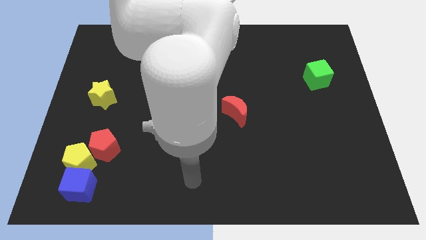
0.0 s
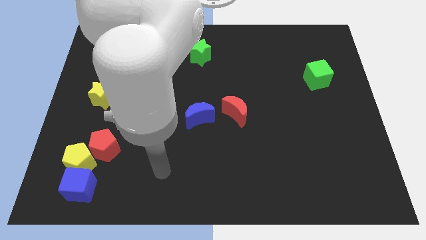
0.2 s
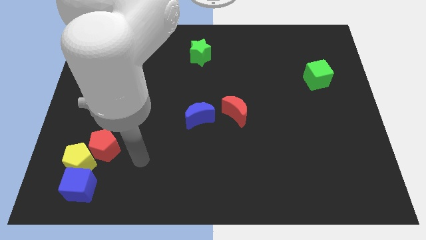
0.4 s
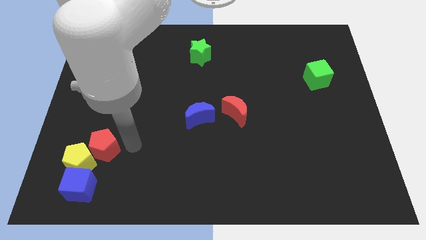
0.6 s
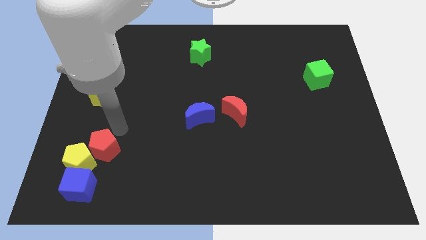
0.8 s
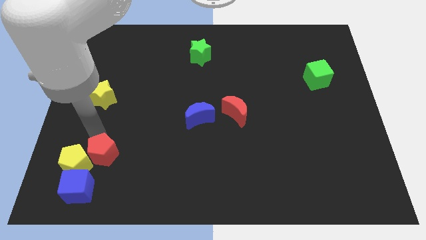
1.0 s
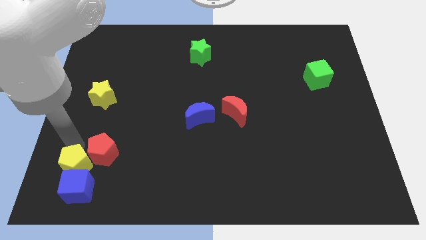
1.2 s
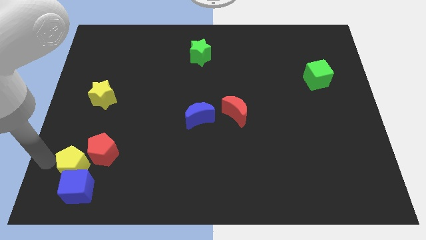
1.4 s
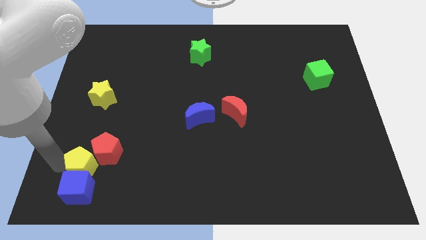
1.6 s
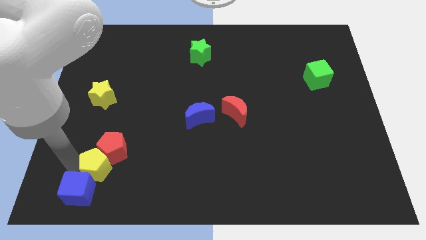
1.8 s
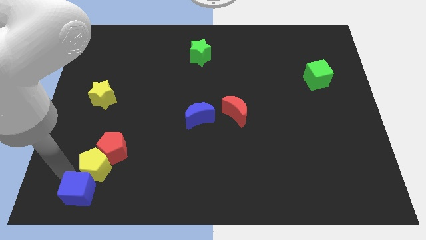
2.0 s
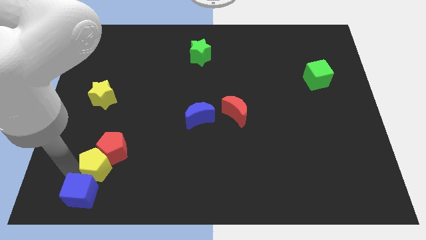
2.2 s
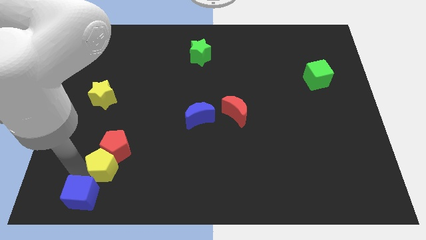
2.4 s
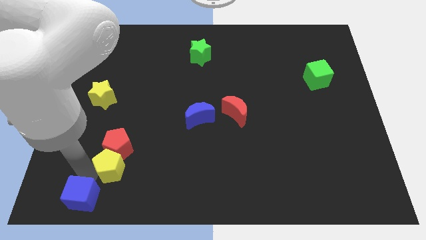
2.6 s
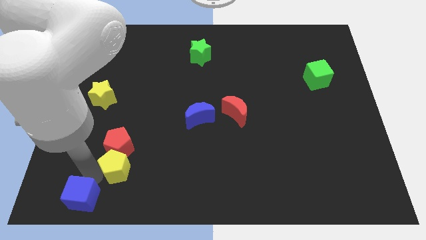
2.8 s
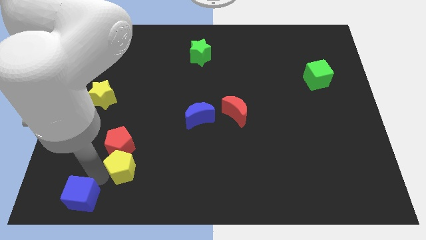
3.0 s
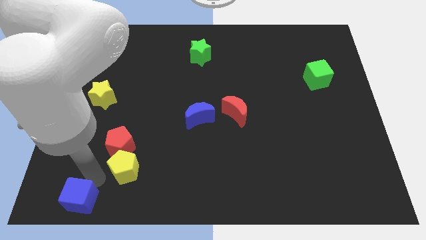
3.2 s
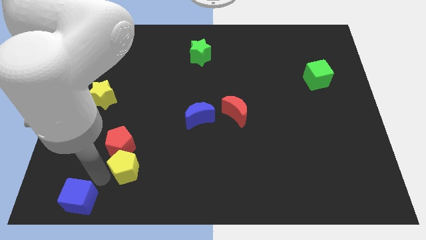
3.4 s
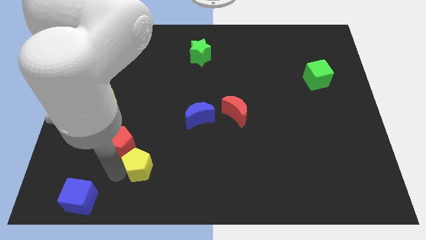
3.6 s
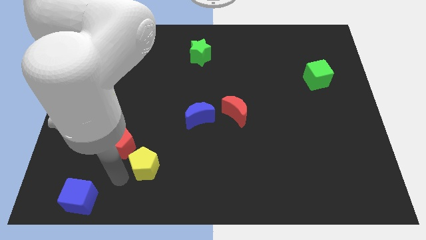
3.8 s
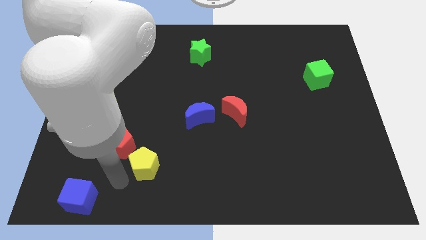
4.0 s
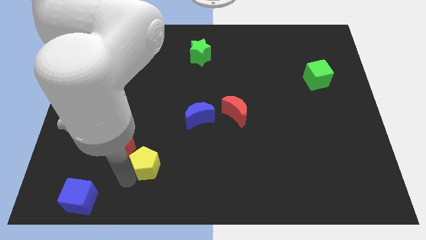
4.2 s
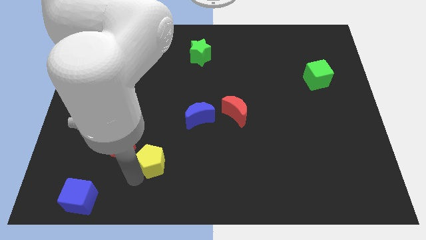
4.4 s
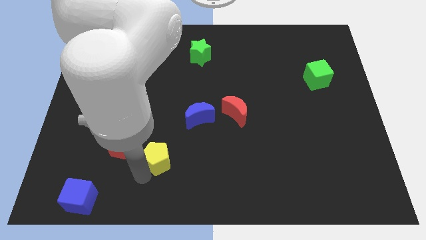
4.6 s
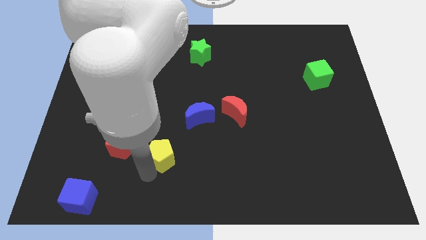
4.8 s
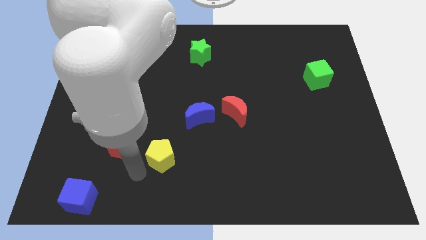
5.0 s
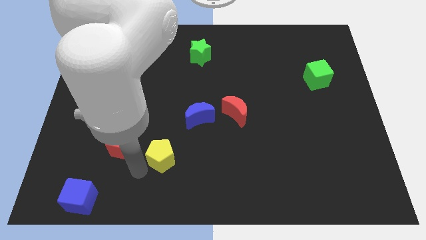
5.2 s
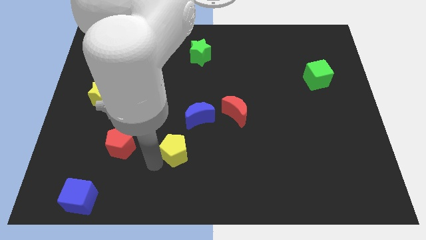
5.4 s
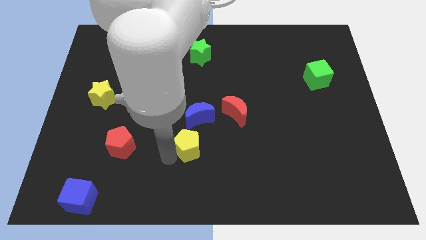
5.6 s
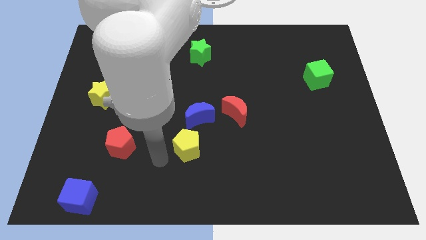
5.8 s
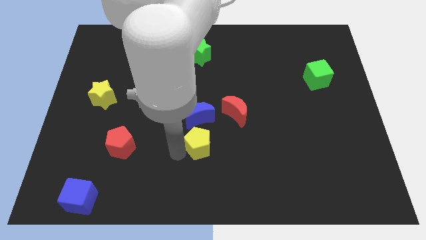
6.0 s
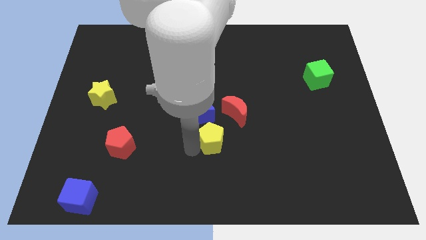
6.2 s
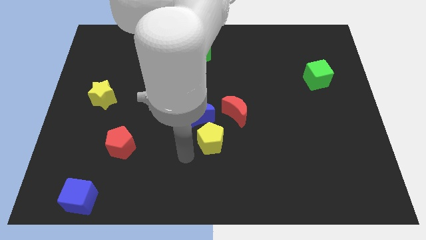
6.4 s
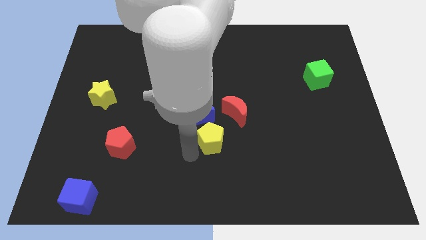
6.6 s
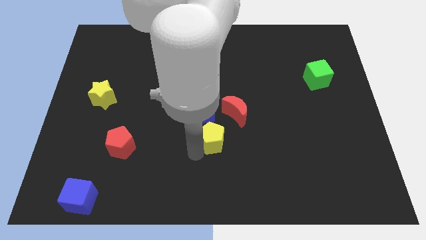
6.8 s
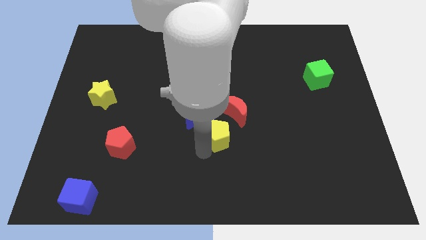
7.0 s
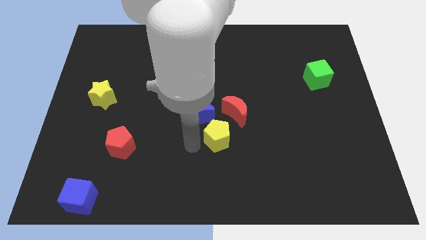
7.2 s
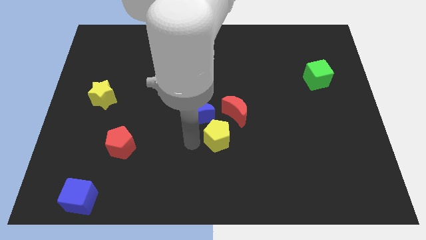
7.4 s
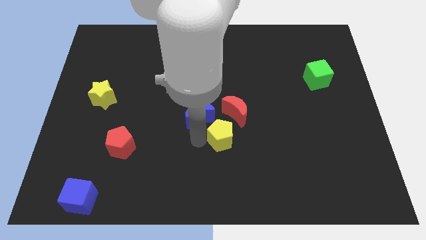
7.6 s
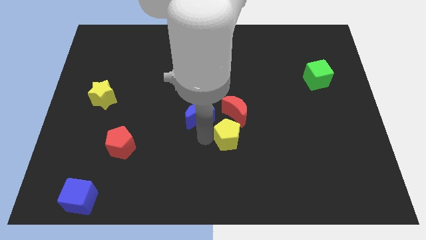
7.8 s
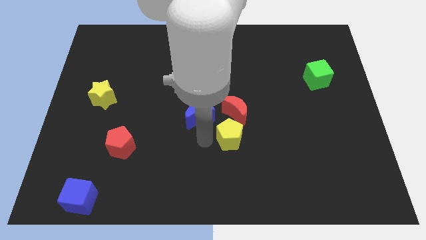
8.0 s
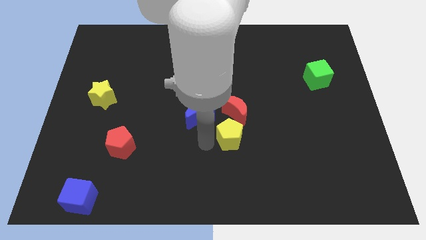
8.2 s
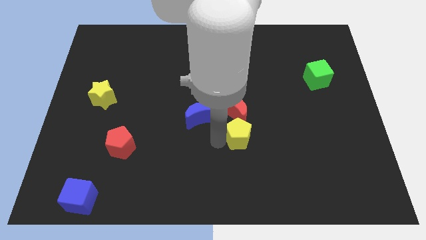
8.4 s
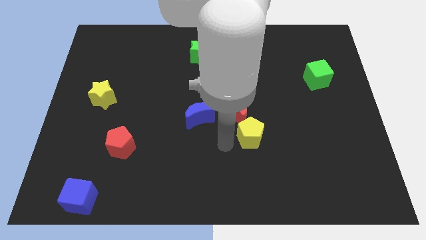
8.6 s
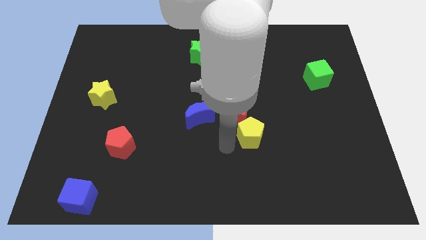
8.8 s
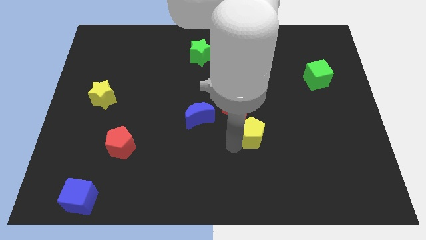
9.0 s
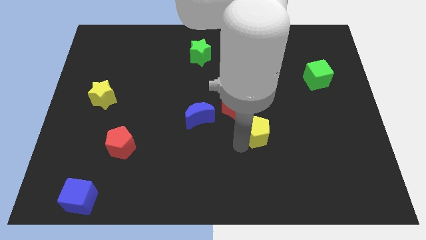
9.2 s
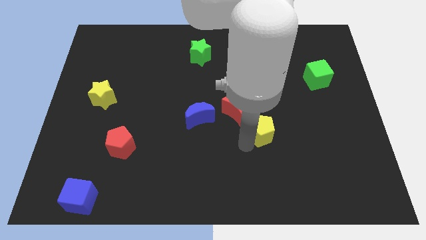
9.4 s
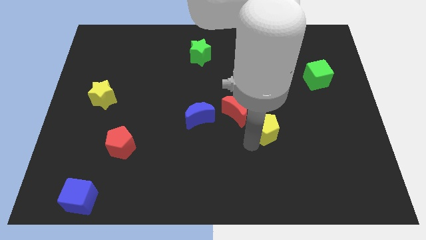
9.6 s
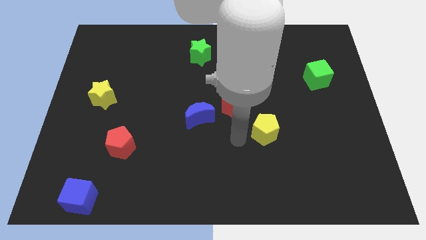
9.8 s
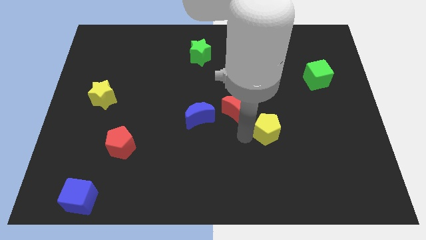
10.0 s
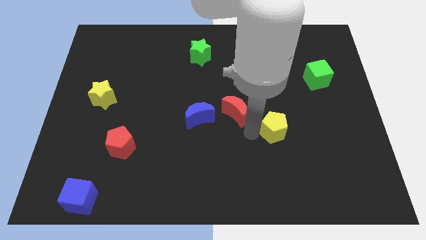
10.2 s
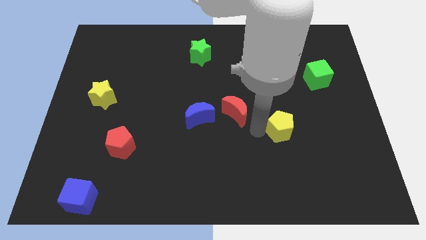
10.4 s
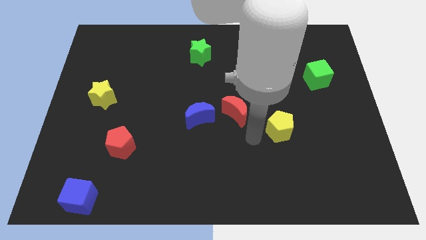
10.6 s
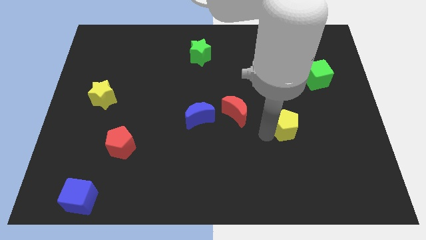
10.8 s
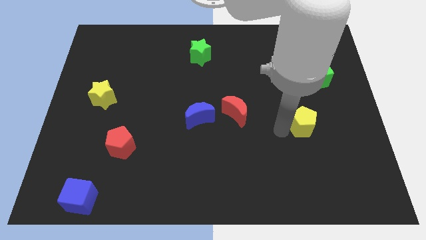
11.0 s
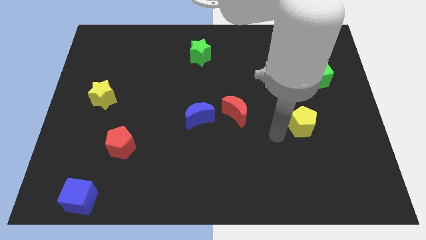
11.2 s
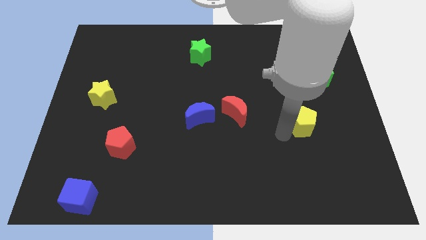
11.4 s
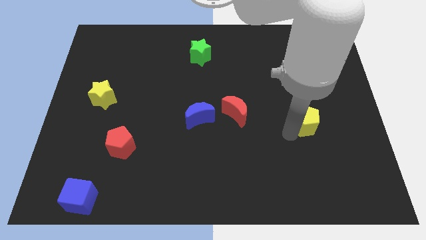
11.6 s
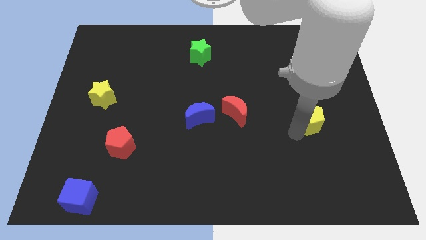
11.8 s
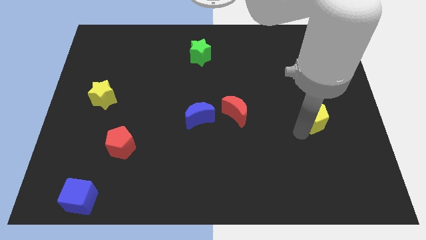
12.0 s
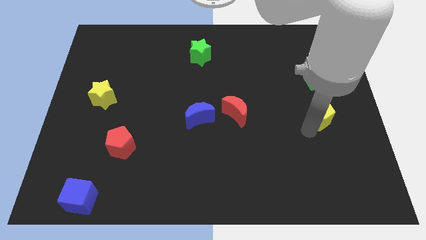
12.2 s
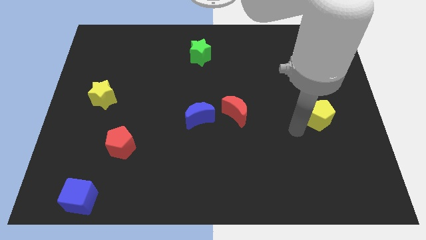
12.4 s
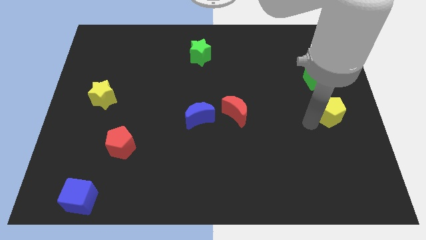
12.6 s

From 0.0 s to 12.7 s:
put the yellow pentagon to the right side

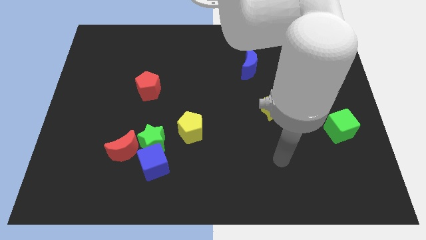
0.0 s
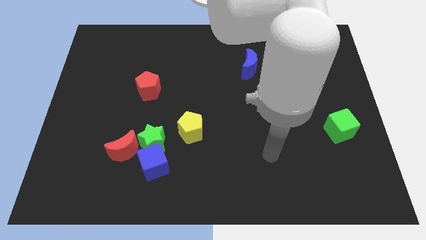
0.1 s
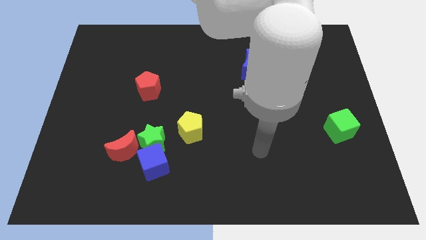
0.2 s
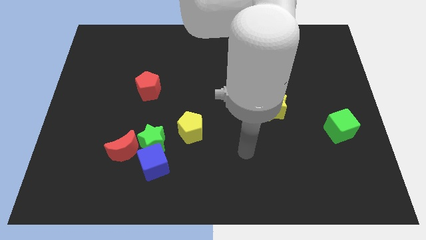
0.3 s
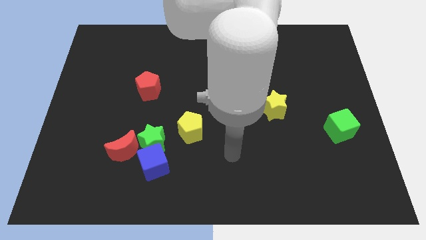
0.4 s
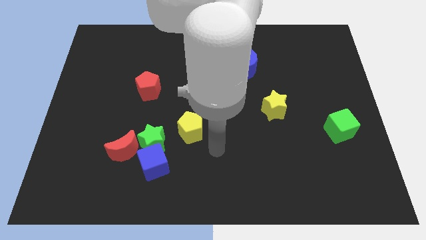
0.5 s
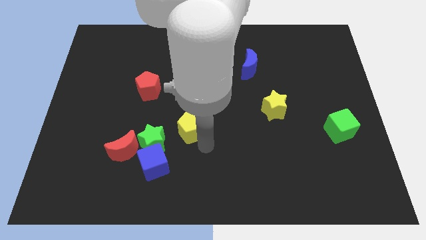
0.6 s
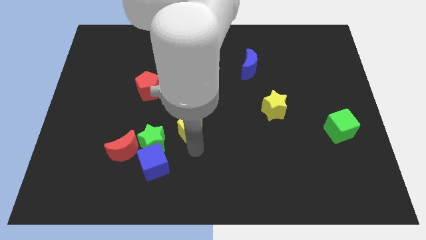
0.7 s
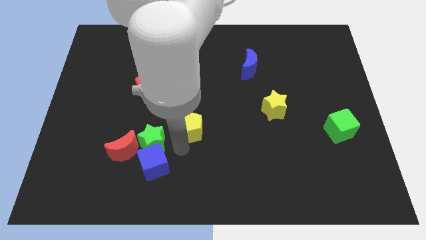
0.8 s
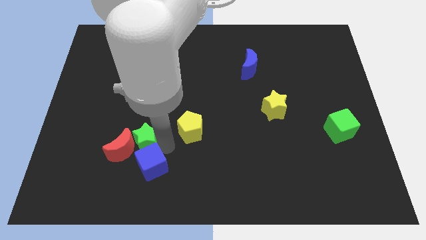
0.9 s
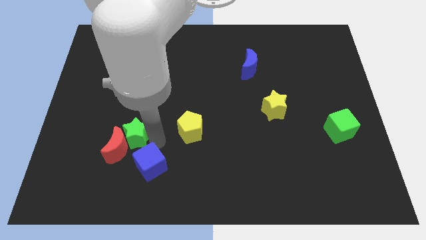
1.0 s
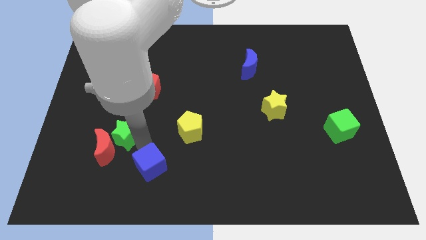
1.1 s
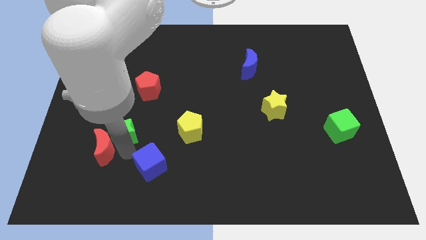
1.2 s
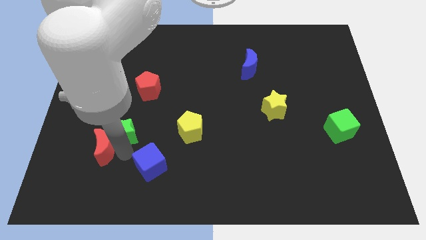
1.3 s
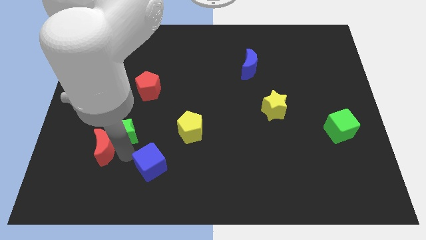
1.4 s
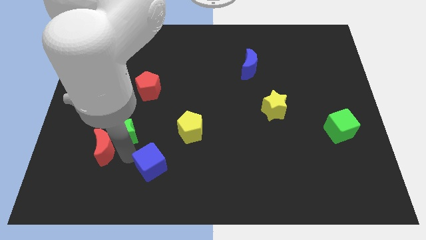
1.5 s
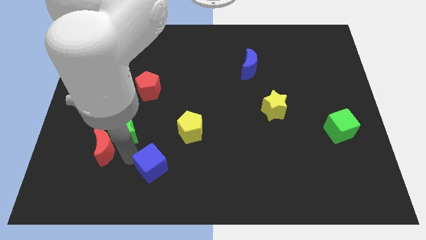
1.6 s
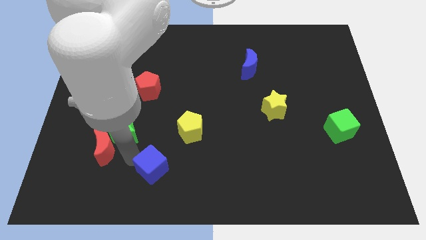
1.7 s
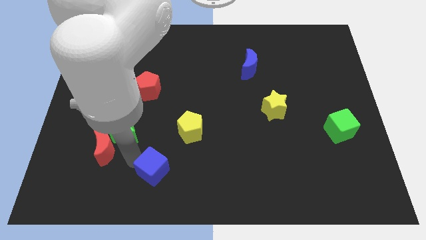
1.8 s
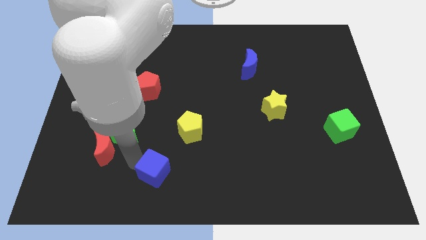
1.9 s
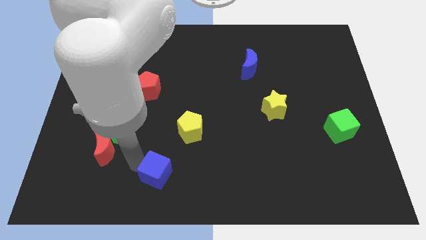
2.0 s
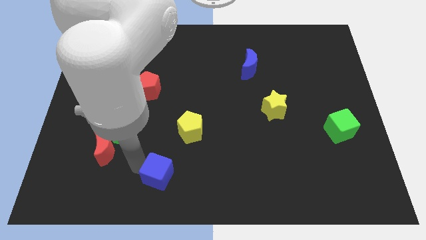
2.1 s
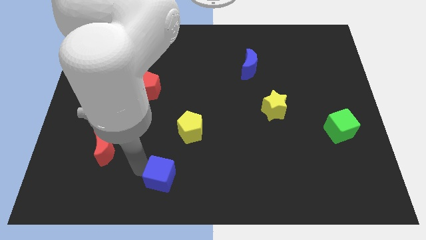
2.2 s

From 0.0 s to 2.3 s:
slide the blue cube to the bottom side
